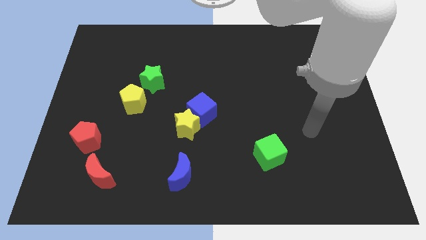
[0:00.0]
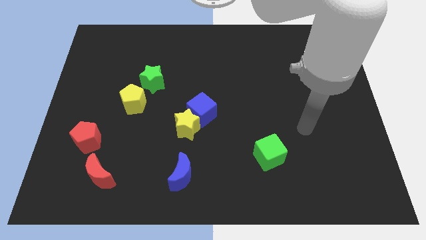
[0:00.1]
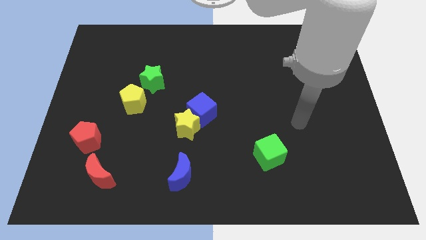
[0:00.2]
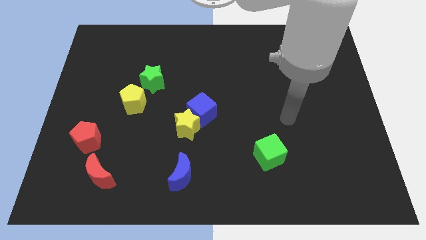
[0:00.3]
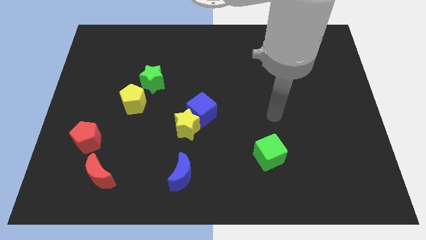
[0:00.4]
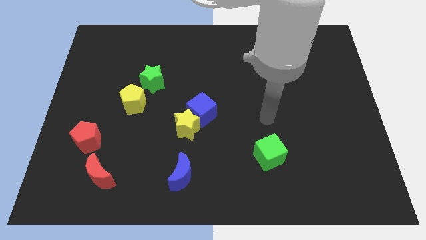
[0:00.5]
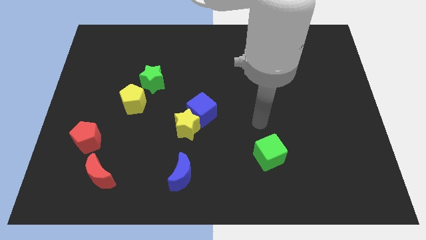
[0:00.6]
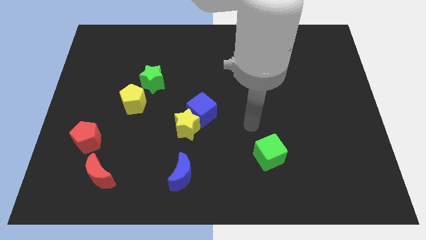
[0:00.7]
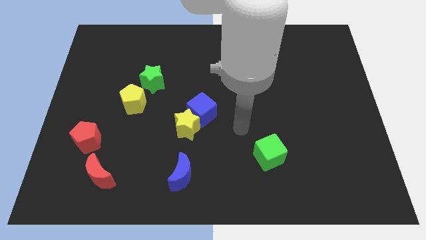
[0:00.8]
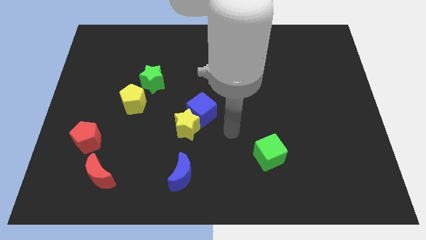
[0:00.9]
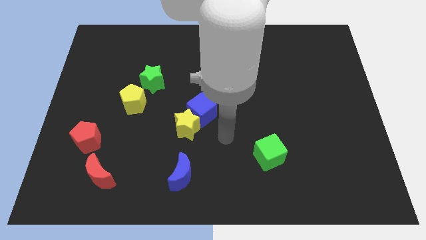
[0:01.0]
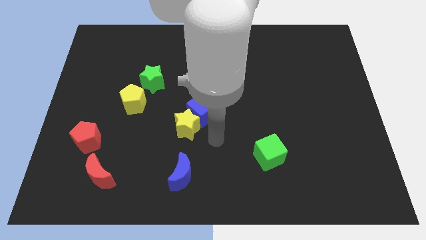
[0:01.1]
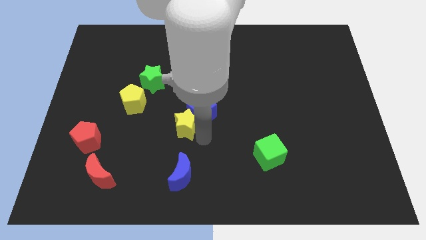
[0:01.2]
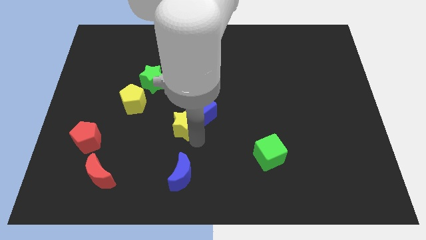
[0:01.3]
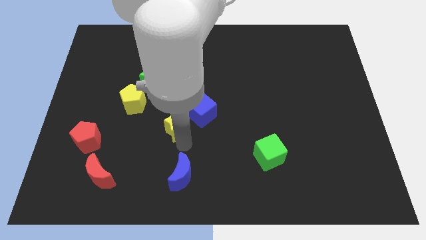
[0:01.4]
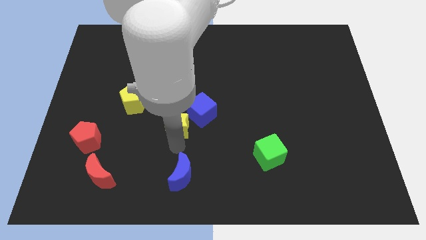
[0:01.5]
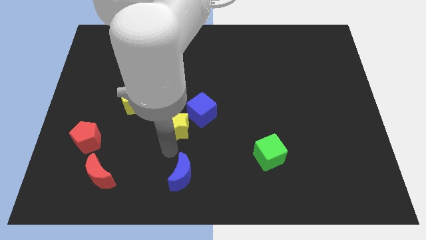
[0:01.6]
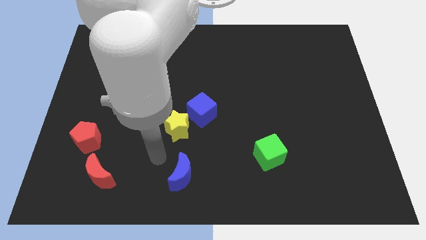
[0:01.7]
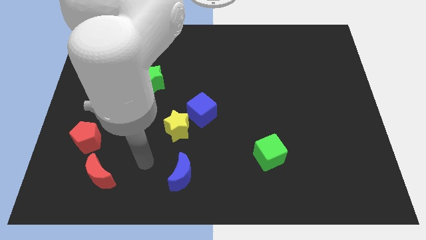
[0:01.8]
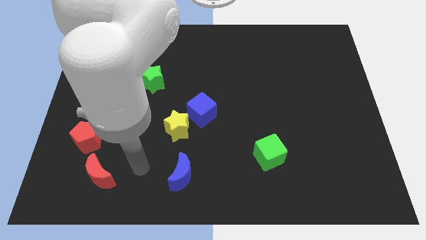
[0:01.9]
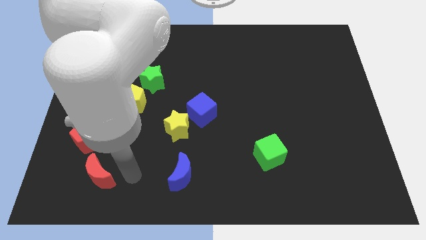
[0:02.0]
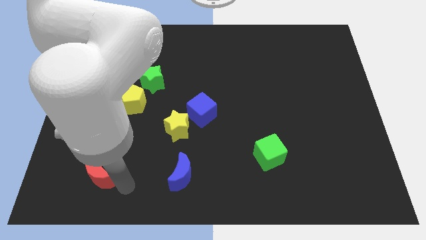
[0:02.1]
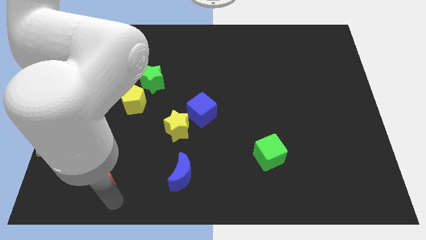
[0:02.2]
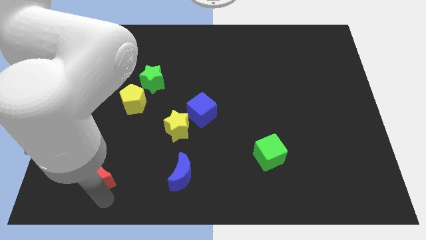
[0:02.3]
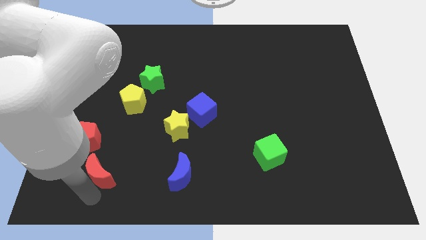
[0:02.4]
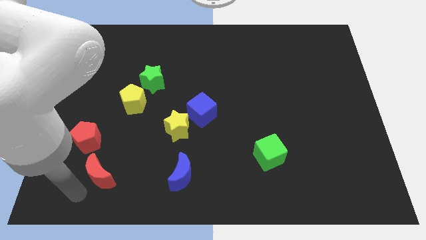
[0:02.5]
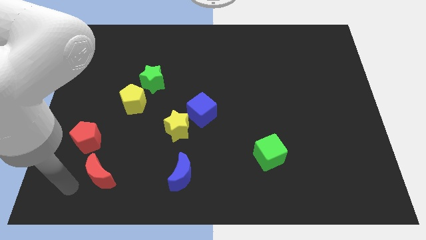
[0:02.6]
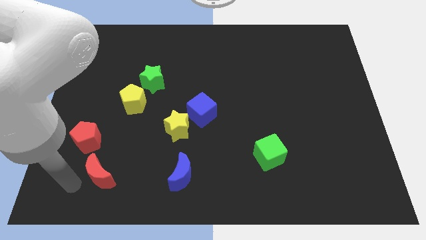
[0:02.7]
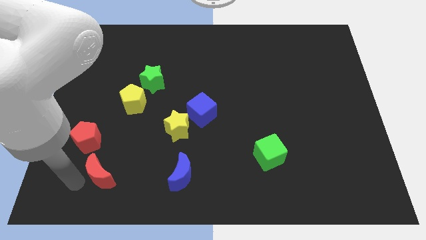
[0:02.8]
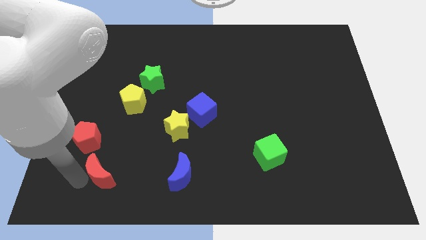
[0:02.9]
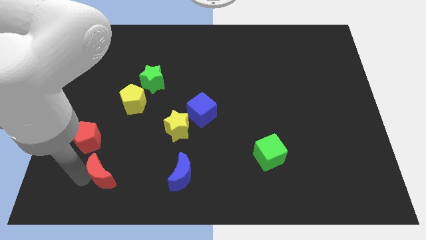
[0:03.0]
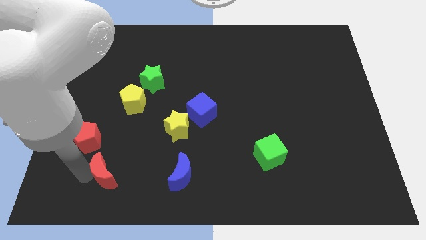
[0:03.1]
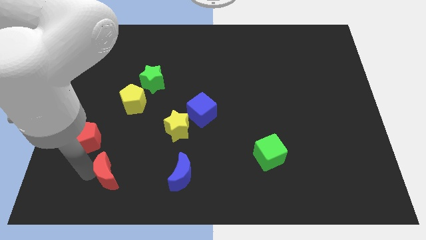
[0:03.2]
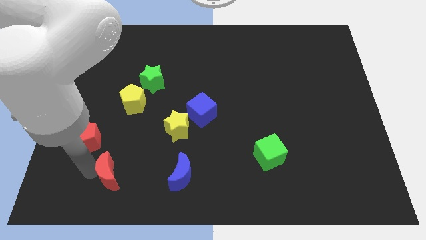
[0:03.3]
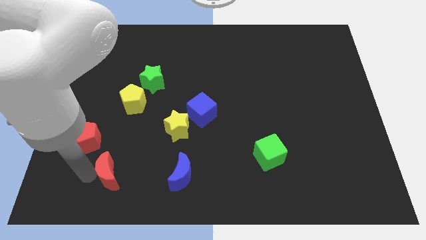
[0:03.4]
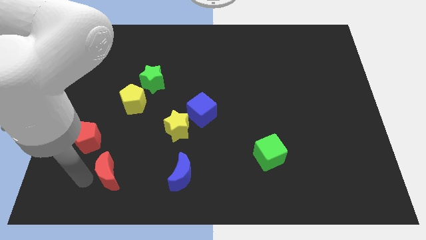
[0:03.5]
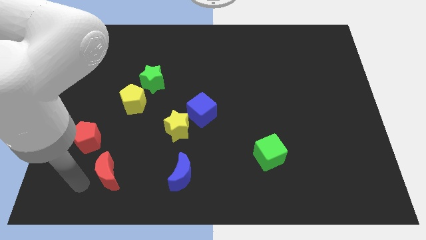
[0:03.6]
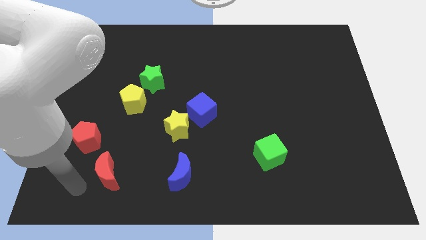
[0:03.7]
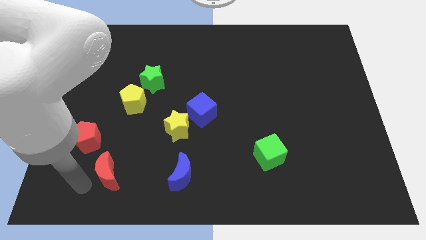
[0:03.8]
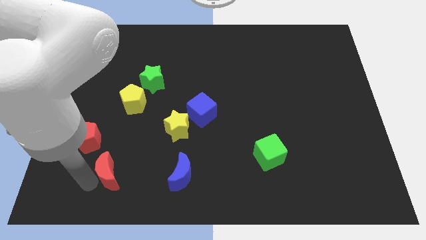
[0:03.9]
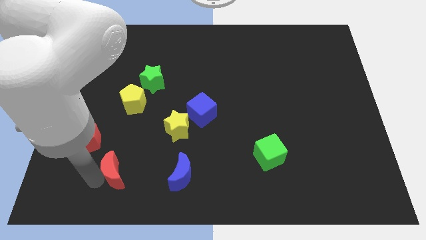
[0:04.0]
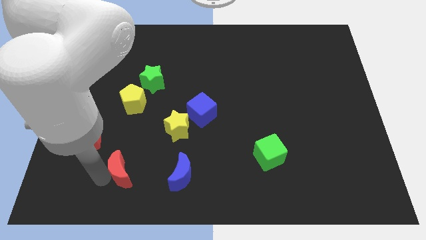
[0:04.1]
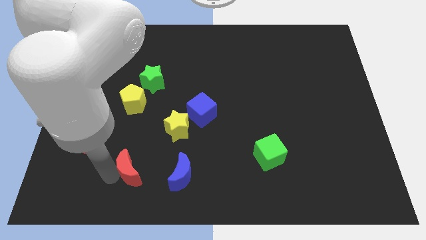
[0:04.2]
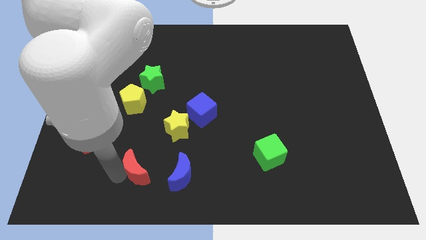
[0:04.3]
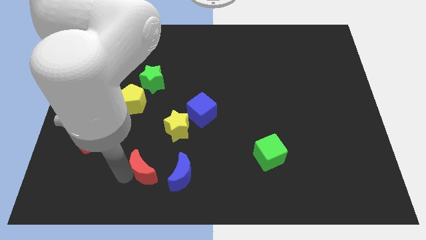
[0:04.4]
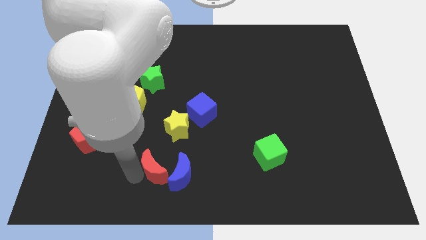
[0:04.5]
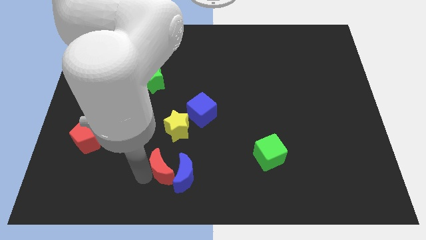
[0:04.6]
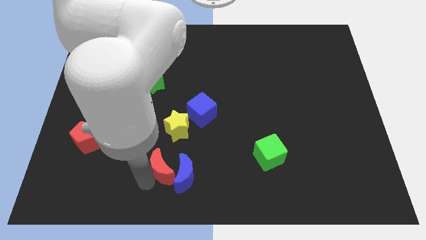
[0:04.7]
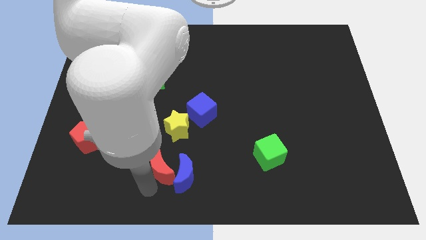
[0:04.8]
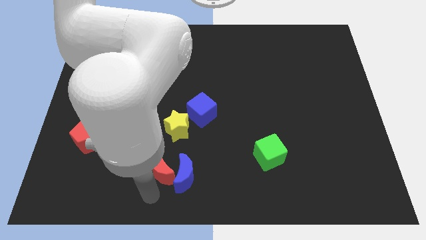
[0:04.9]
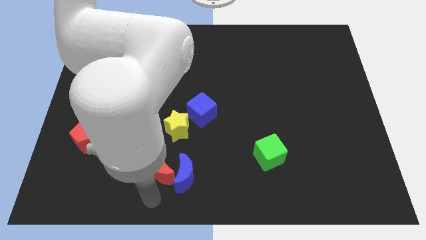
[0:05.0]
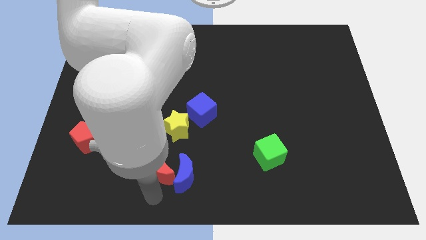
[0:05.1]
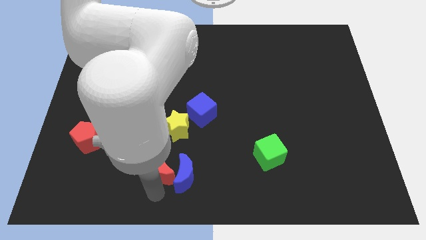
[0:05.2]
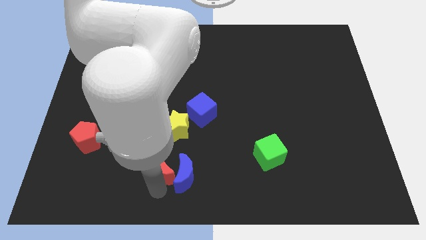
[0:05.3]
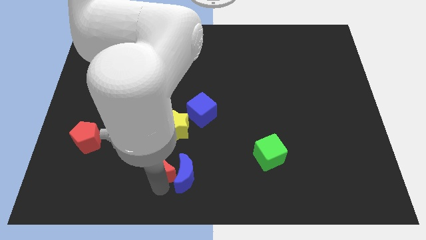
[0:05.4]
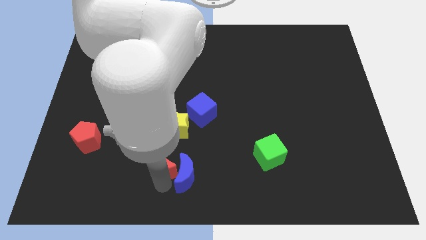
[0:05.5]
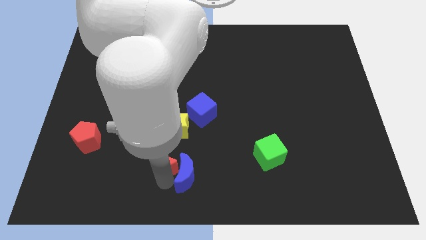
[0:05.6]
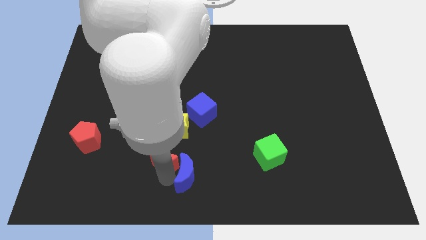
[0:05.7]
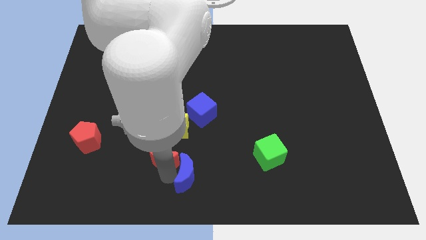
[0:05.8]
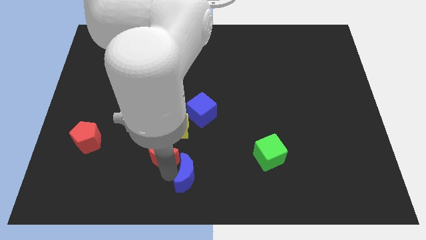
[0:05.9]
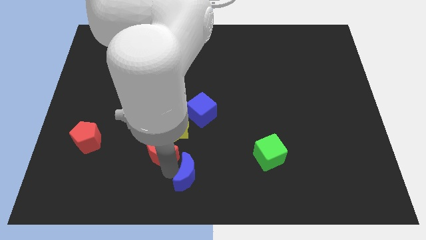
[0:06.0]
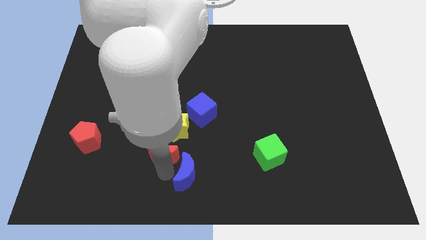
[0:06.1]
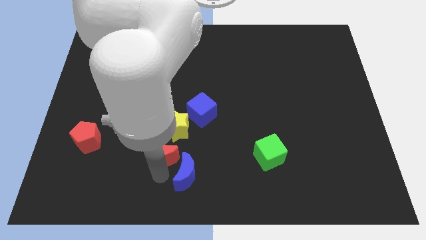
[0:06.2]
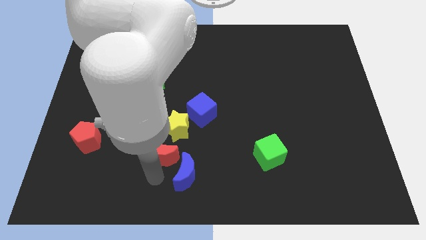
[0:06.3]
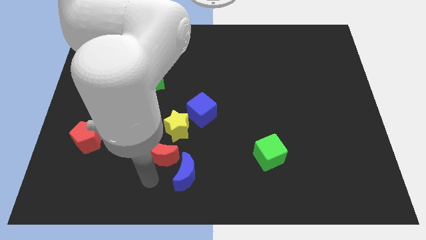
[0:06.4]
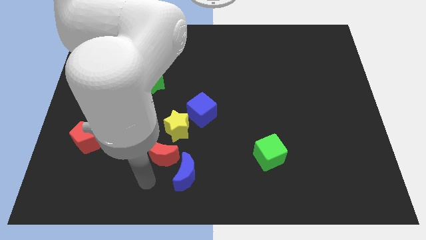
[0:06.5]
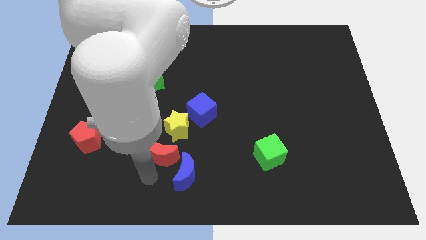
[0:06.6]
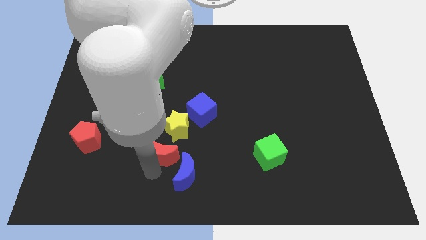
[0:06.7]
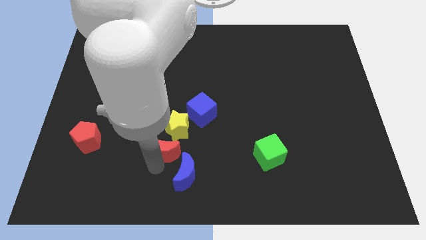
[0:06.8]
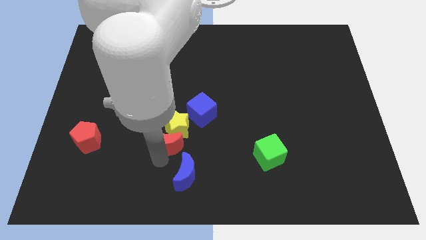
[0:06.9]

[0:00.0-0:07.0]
move the red moon close to the yellow star
